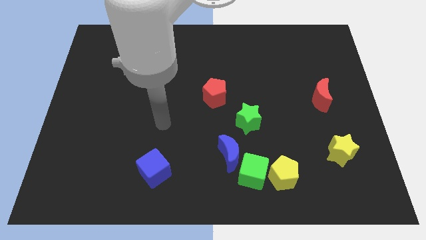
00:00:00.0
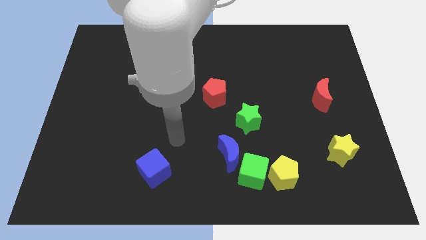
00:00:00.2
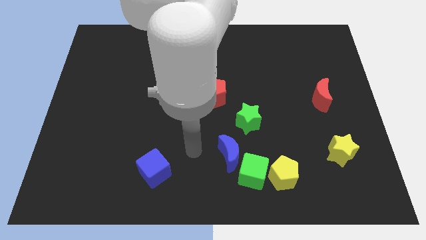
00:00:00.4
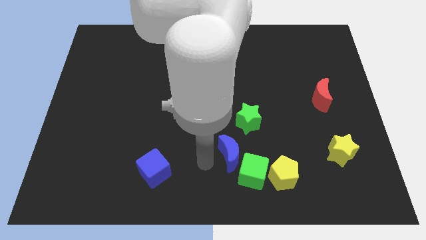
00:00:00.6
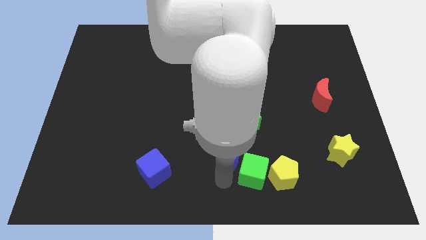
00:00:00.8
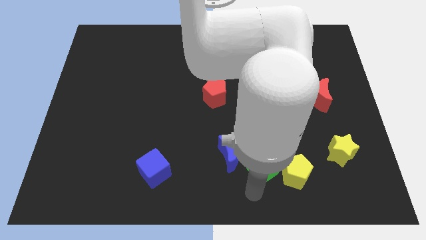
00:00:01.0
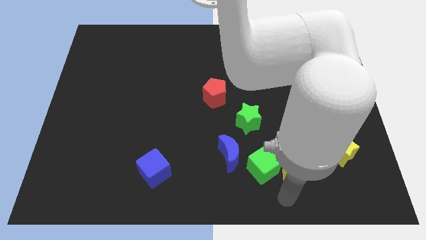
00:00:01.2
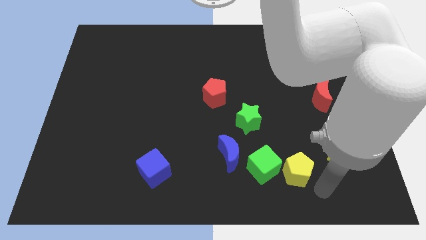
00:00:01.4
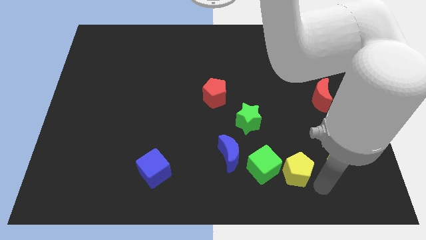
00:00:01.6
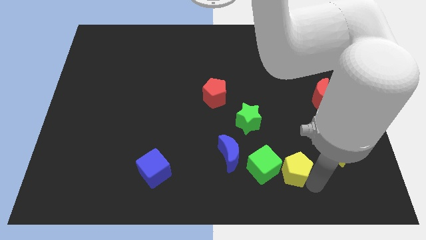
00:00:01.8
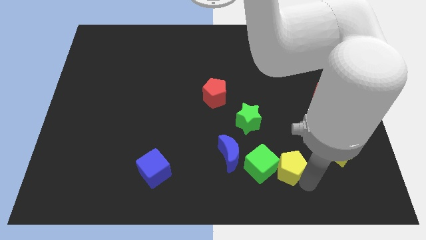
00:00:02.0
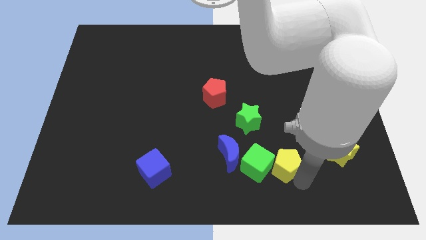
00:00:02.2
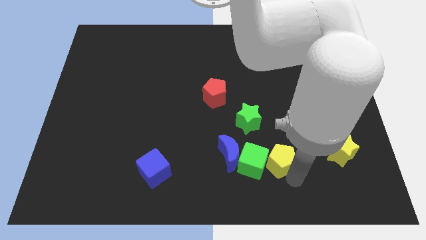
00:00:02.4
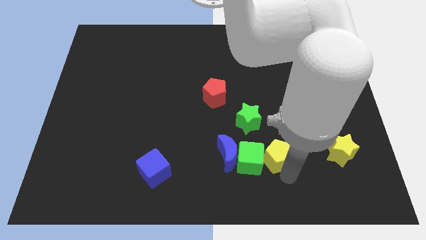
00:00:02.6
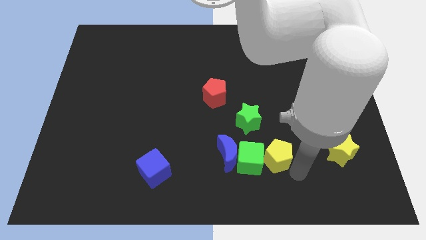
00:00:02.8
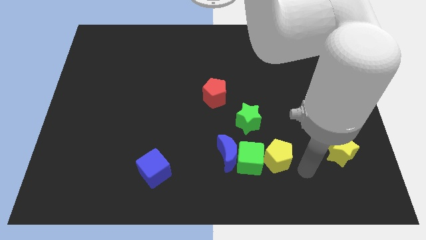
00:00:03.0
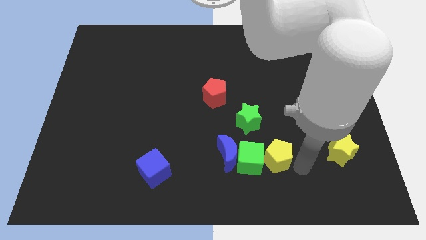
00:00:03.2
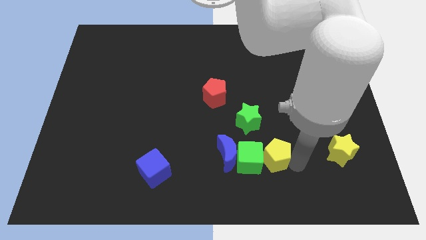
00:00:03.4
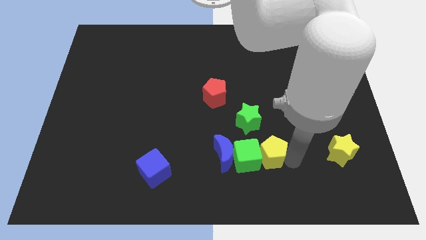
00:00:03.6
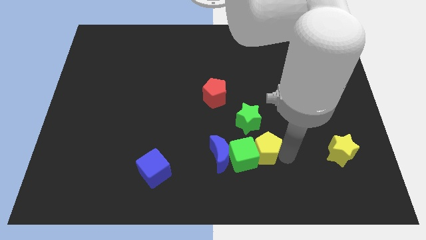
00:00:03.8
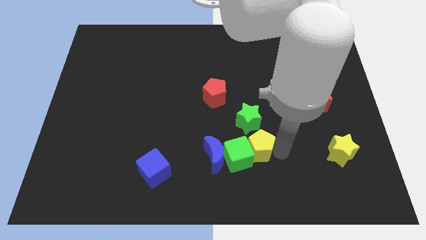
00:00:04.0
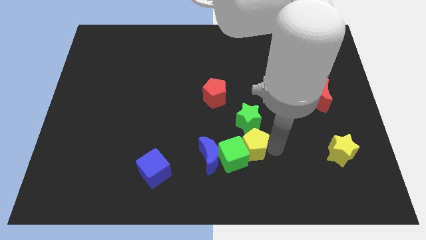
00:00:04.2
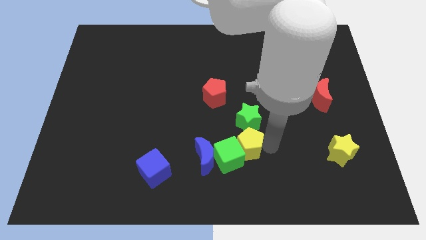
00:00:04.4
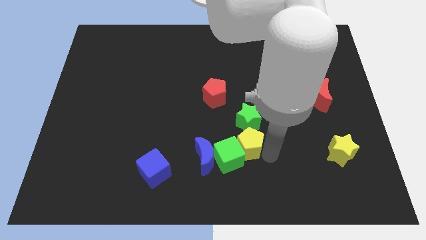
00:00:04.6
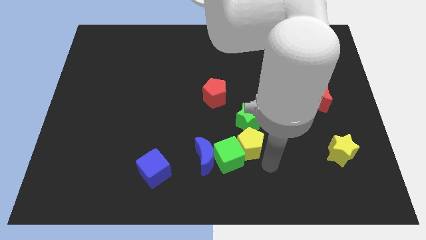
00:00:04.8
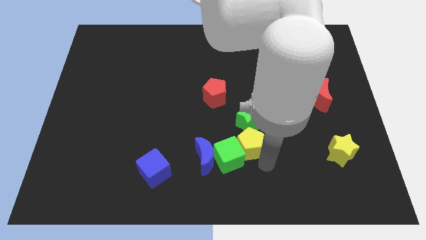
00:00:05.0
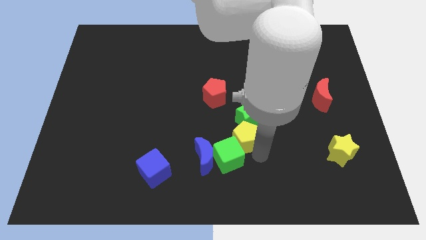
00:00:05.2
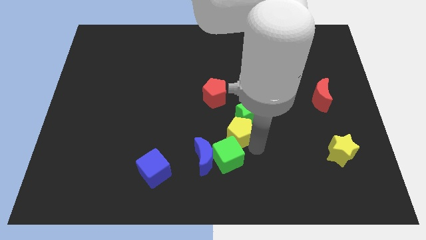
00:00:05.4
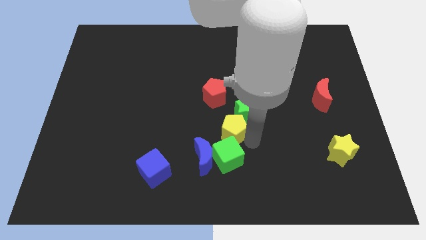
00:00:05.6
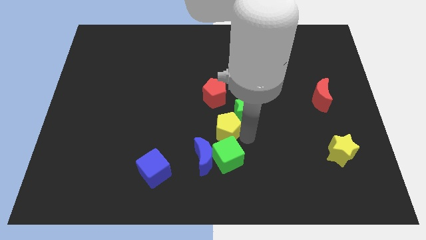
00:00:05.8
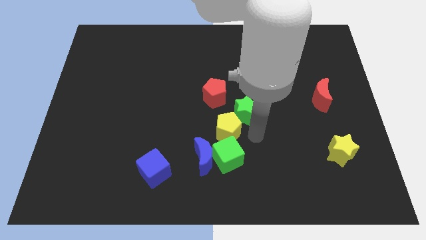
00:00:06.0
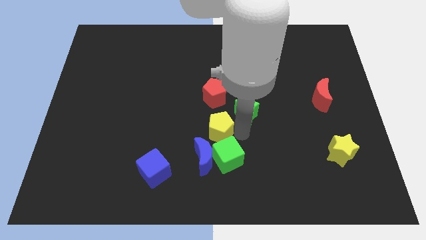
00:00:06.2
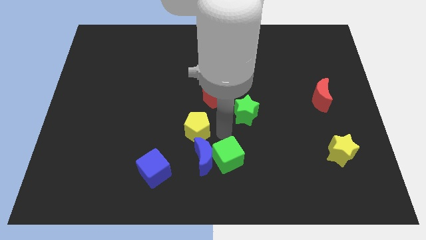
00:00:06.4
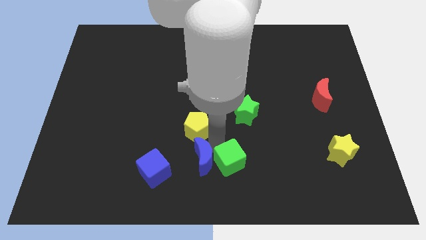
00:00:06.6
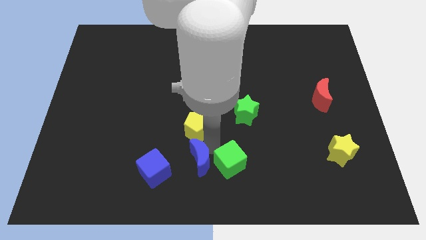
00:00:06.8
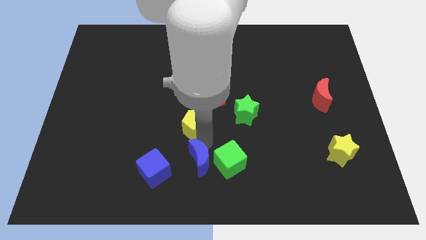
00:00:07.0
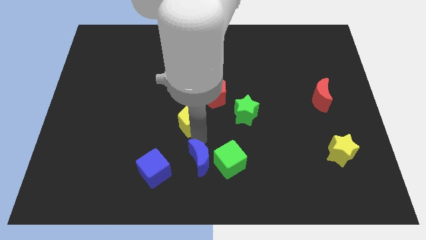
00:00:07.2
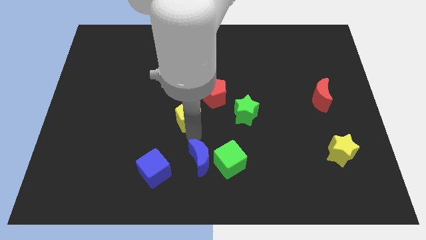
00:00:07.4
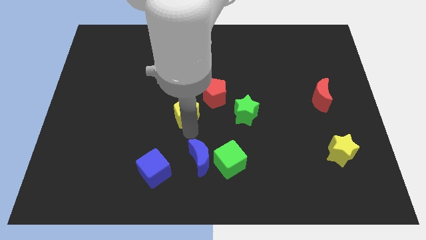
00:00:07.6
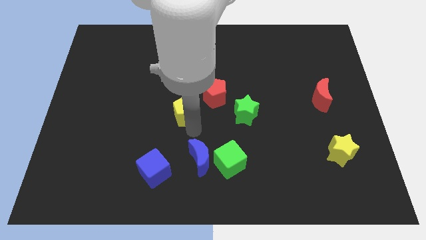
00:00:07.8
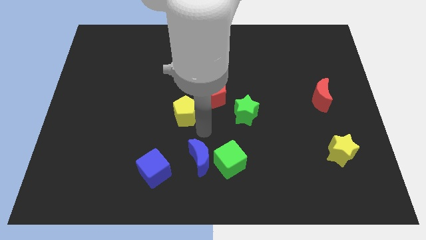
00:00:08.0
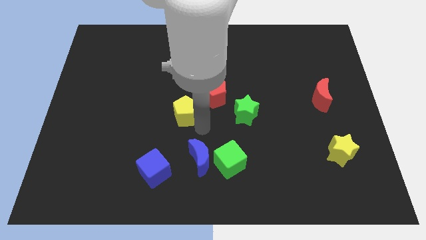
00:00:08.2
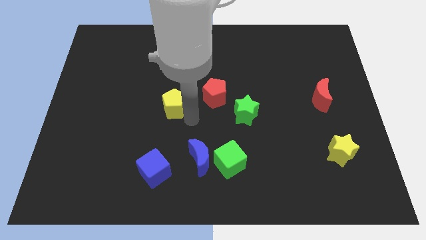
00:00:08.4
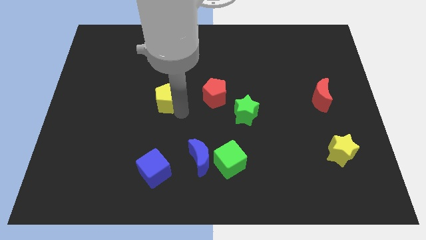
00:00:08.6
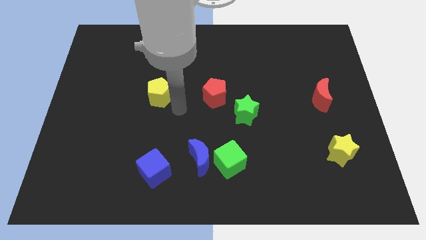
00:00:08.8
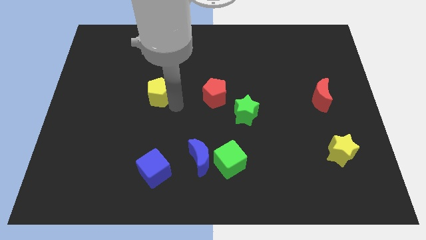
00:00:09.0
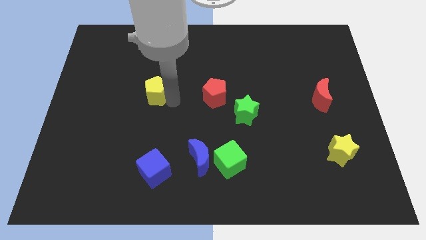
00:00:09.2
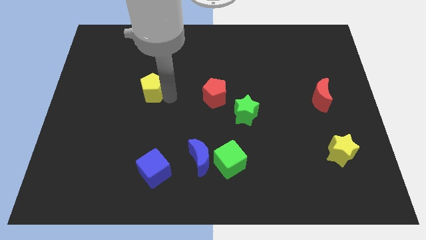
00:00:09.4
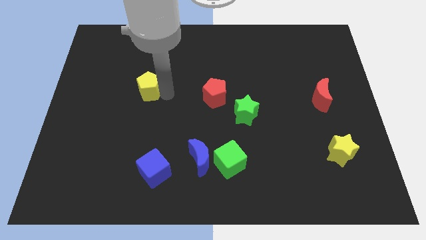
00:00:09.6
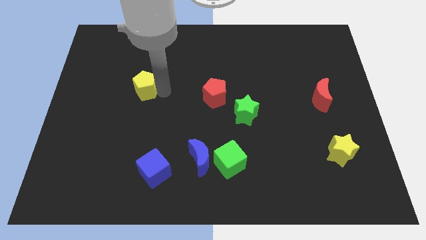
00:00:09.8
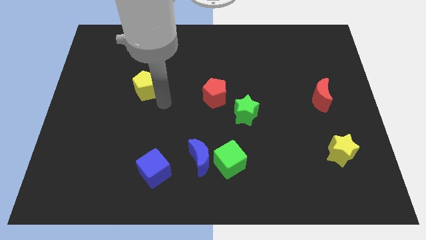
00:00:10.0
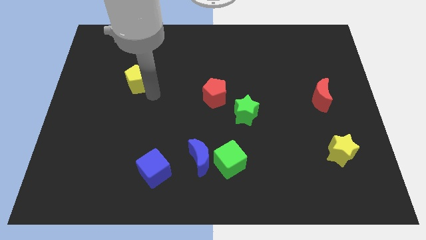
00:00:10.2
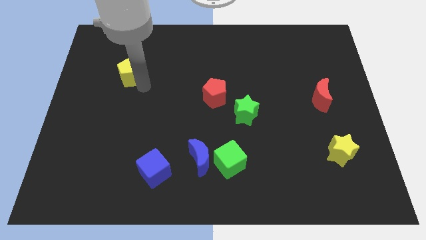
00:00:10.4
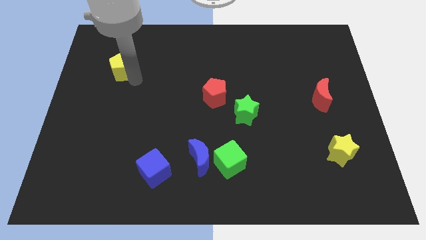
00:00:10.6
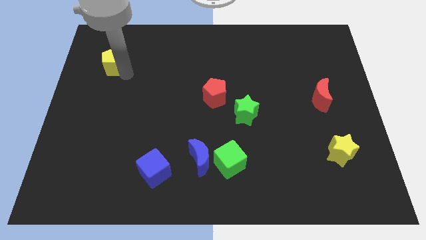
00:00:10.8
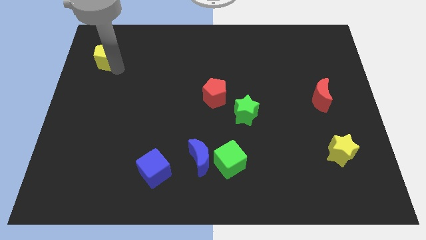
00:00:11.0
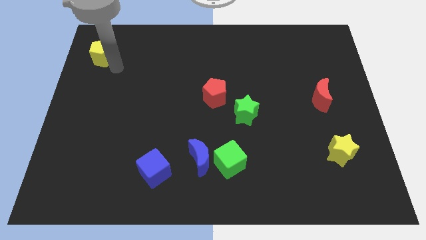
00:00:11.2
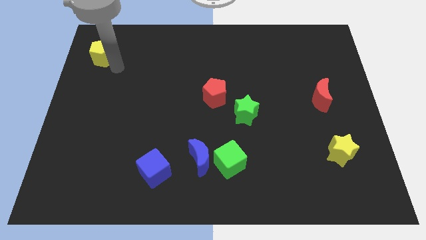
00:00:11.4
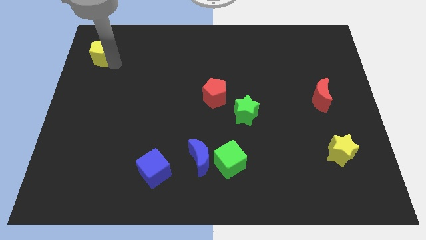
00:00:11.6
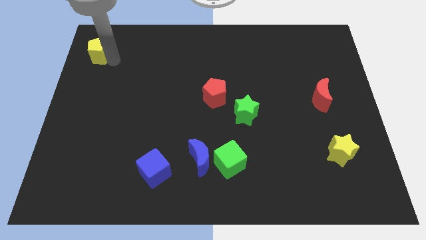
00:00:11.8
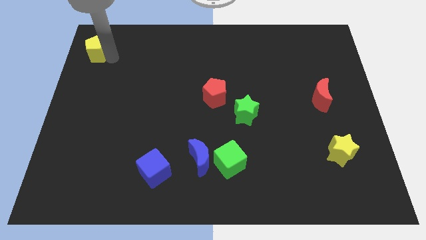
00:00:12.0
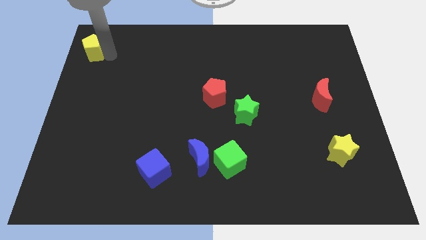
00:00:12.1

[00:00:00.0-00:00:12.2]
put the yellow pentagon to the upper left corner

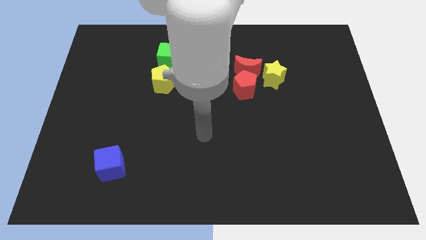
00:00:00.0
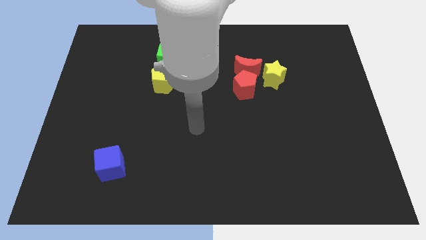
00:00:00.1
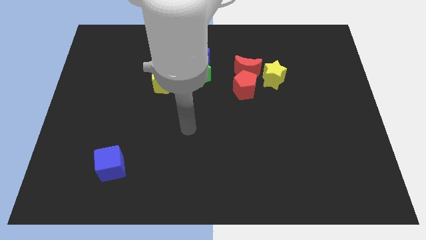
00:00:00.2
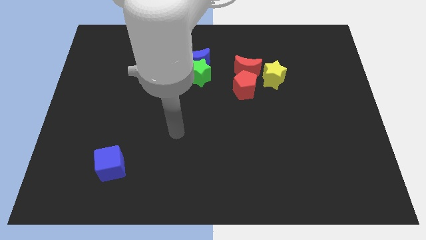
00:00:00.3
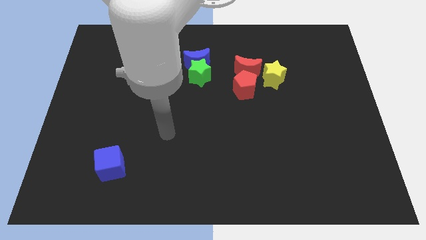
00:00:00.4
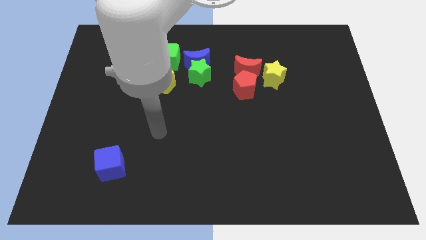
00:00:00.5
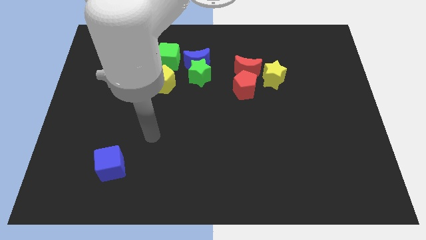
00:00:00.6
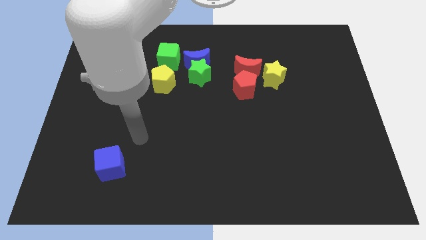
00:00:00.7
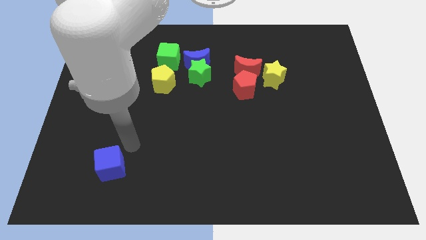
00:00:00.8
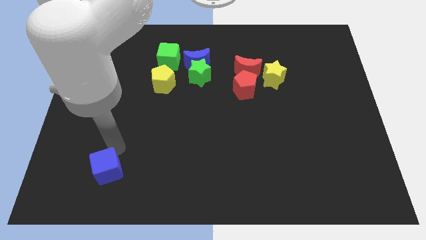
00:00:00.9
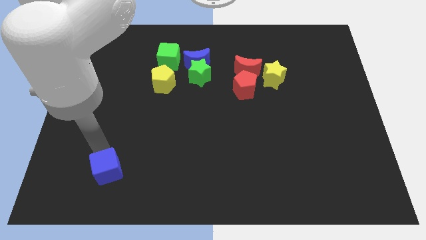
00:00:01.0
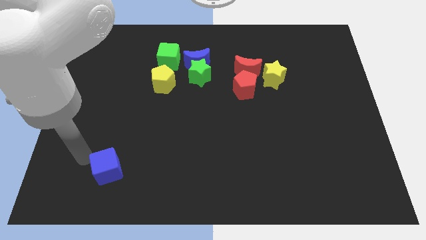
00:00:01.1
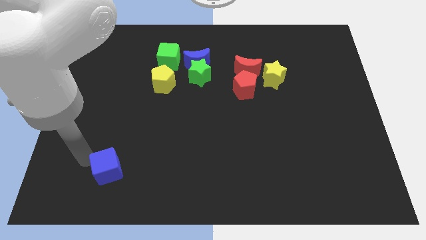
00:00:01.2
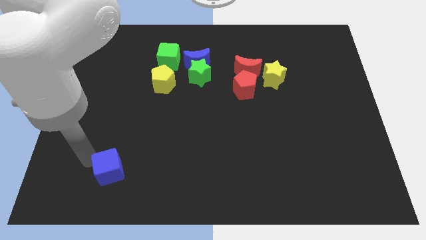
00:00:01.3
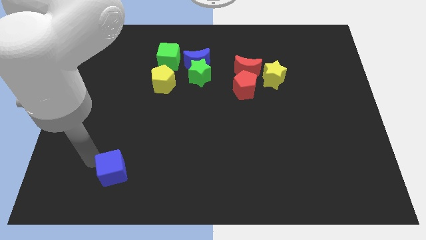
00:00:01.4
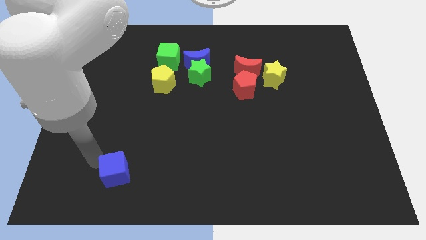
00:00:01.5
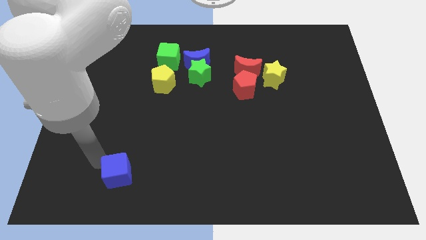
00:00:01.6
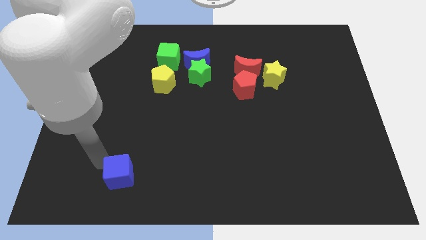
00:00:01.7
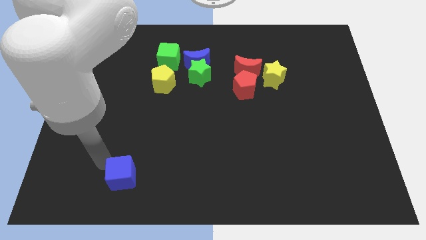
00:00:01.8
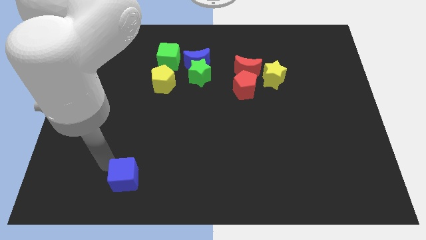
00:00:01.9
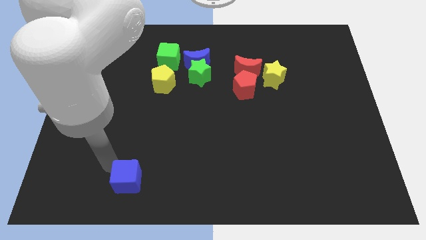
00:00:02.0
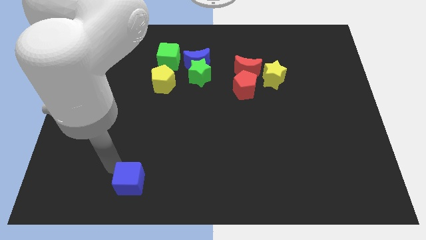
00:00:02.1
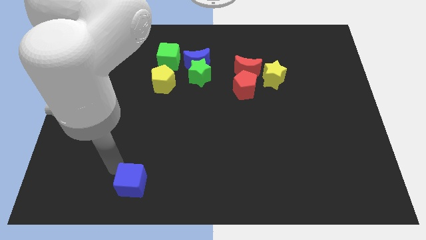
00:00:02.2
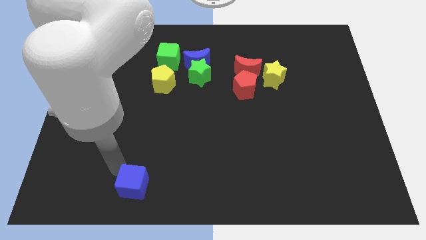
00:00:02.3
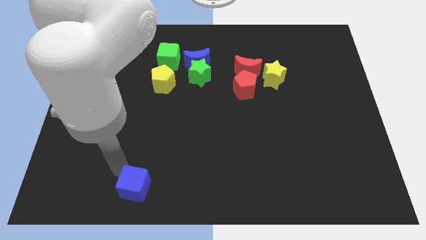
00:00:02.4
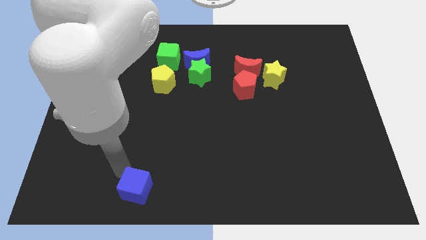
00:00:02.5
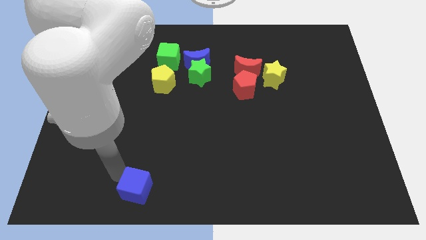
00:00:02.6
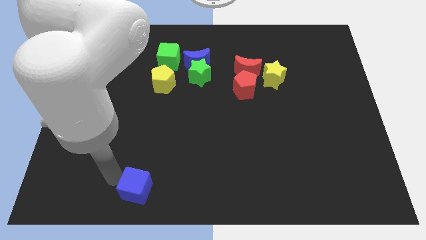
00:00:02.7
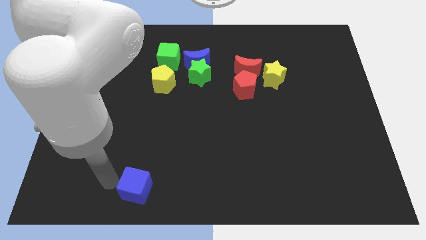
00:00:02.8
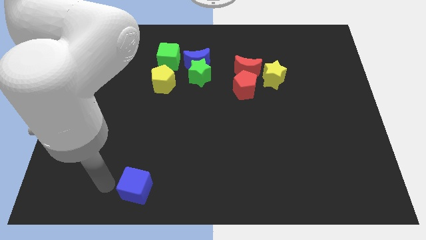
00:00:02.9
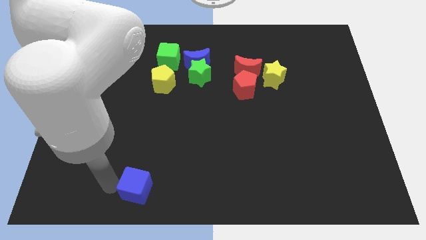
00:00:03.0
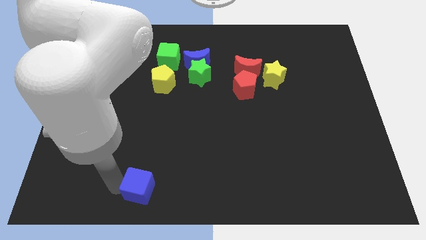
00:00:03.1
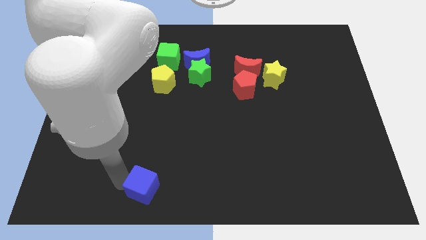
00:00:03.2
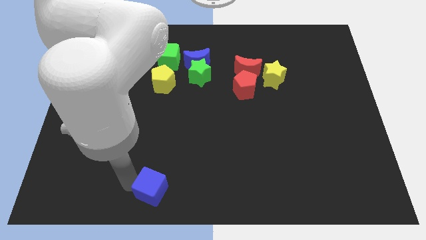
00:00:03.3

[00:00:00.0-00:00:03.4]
move the blue cube to the bottom
